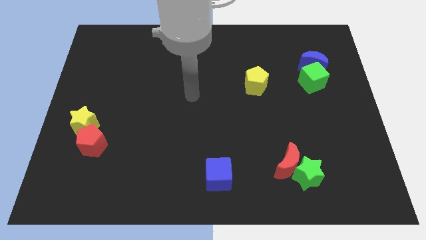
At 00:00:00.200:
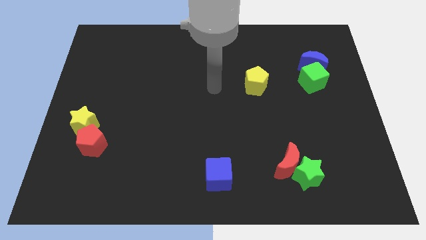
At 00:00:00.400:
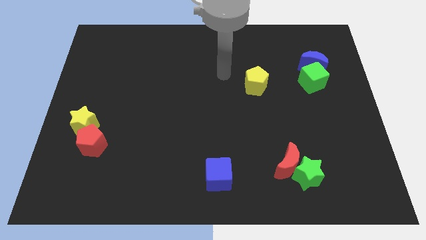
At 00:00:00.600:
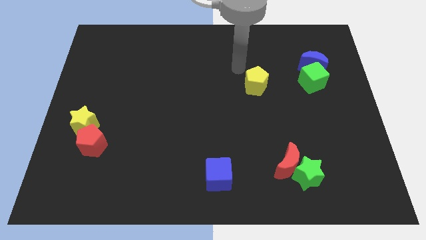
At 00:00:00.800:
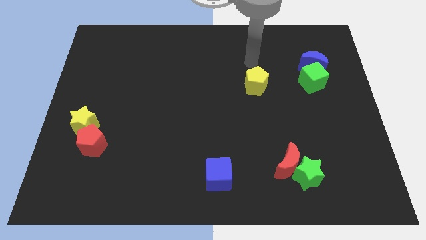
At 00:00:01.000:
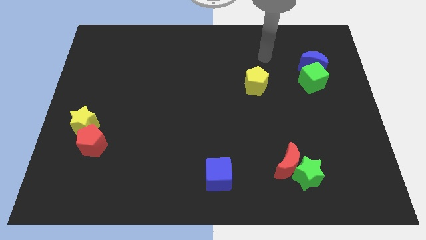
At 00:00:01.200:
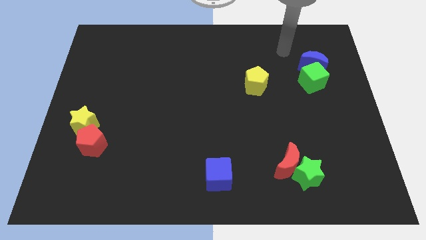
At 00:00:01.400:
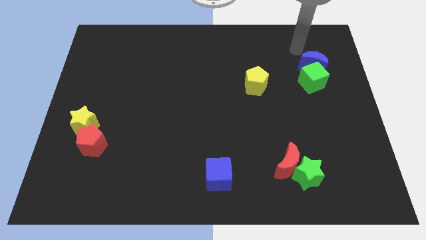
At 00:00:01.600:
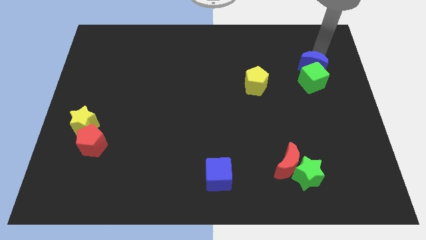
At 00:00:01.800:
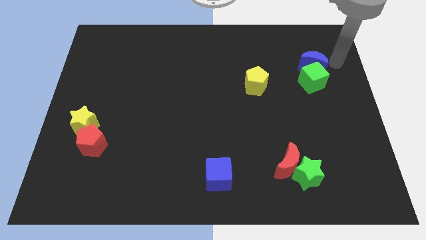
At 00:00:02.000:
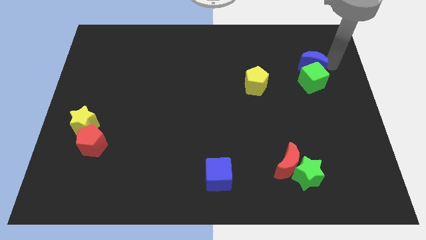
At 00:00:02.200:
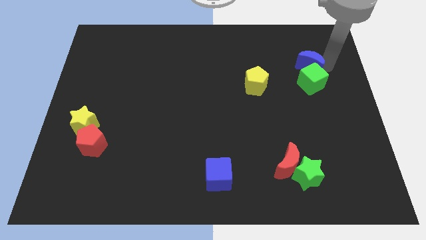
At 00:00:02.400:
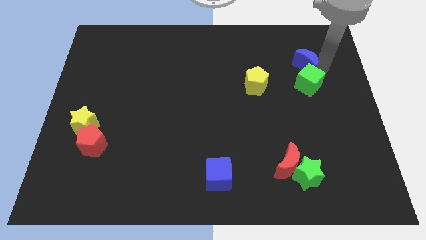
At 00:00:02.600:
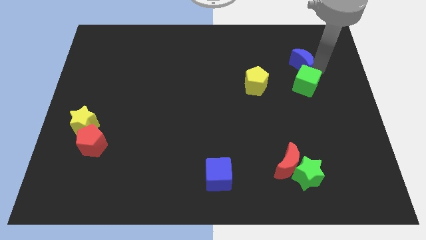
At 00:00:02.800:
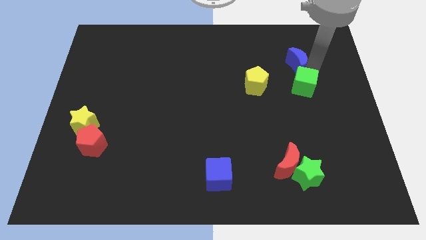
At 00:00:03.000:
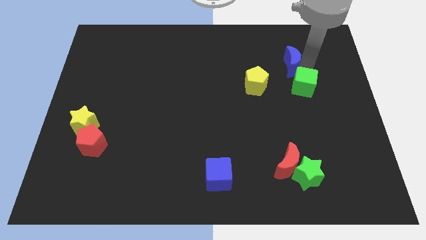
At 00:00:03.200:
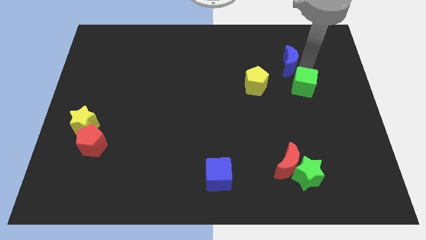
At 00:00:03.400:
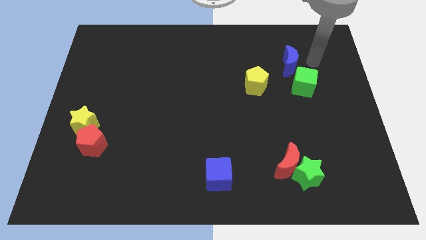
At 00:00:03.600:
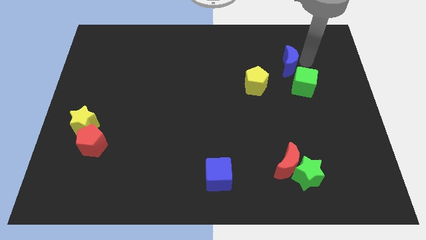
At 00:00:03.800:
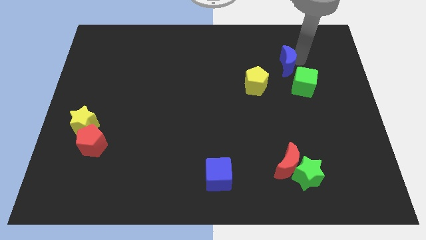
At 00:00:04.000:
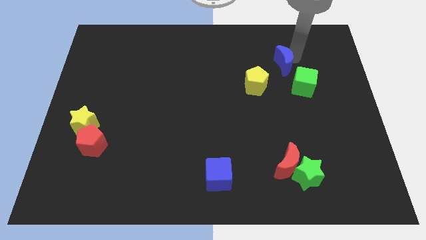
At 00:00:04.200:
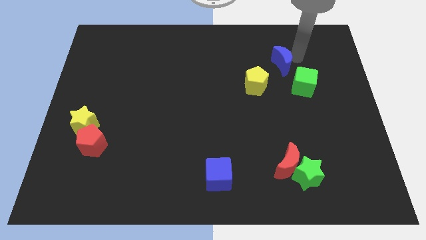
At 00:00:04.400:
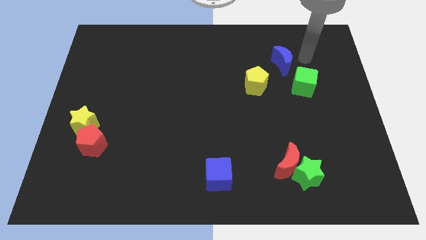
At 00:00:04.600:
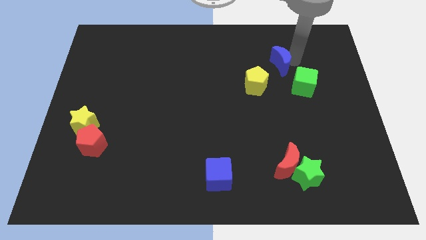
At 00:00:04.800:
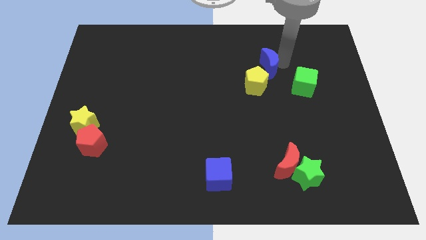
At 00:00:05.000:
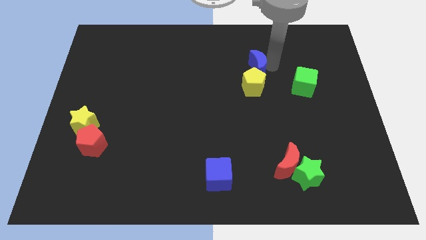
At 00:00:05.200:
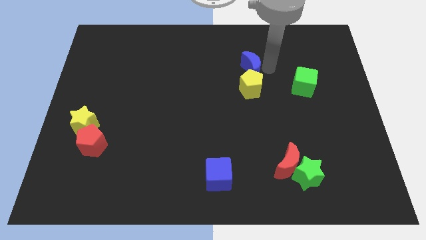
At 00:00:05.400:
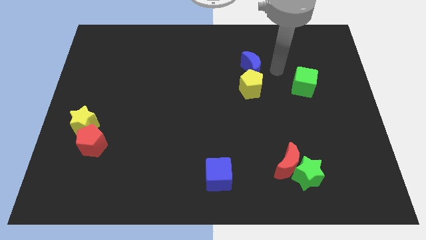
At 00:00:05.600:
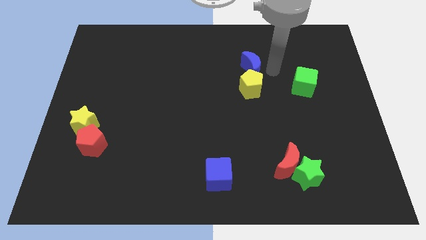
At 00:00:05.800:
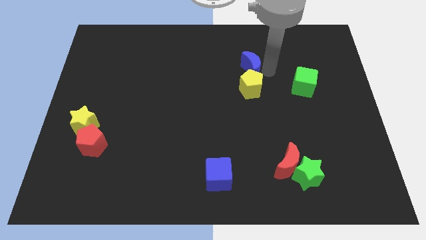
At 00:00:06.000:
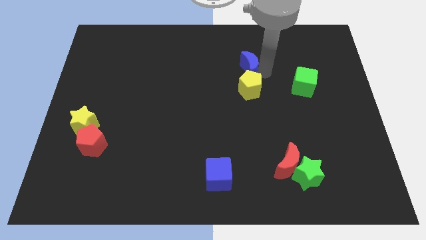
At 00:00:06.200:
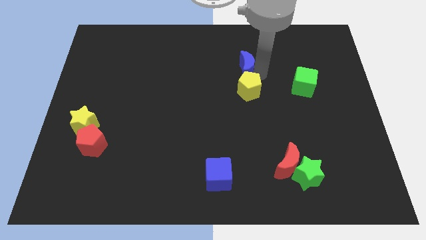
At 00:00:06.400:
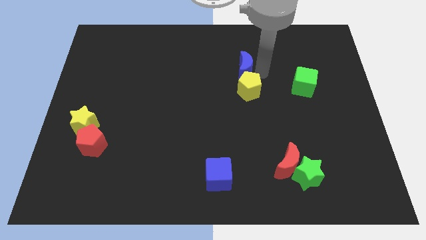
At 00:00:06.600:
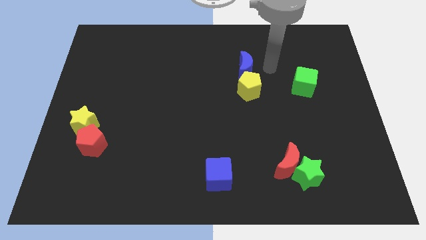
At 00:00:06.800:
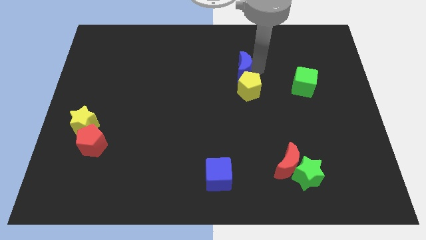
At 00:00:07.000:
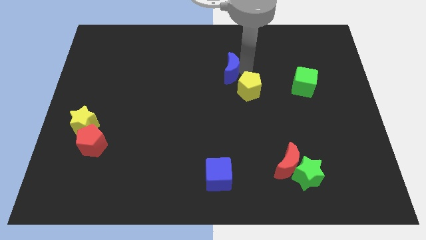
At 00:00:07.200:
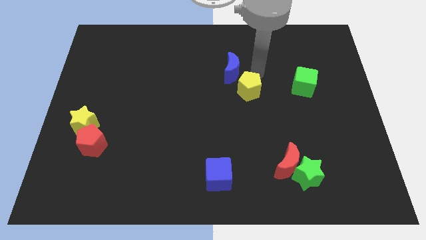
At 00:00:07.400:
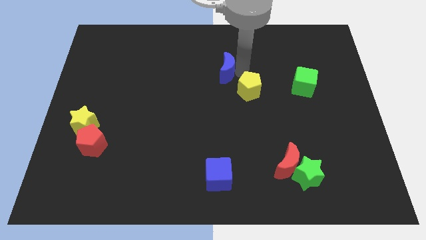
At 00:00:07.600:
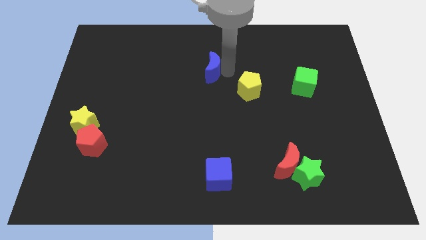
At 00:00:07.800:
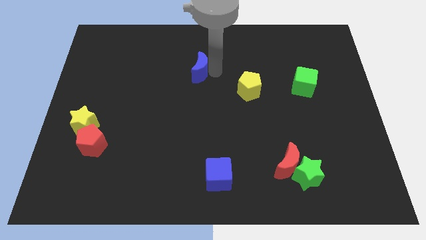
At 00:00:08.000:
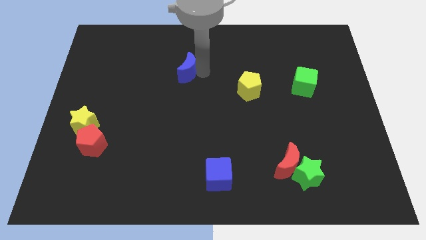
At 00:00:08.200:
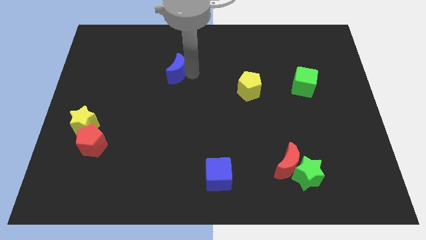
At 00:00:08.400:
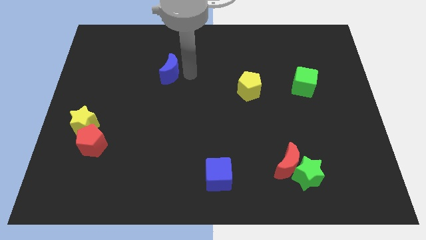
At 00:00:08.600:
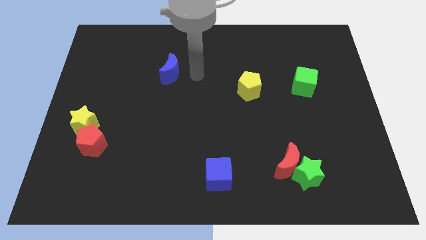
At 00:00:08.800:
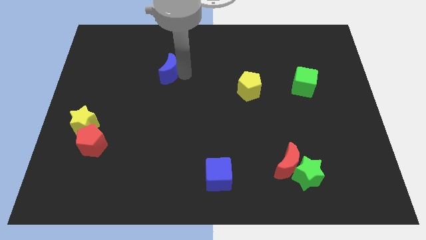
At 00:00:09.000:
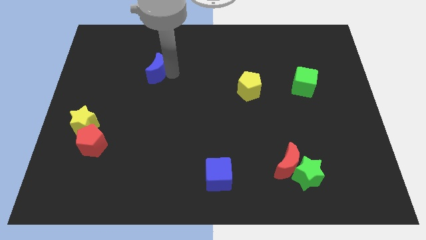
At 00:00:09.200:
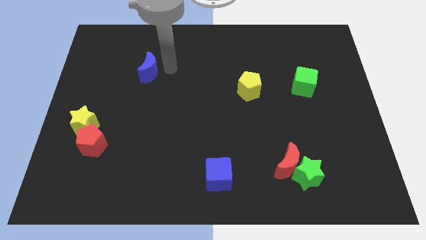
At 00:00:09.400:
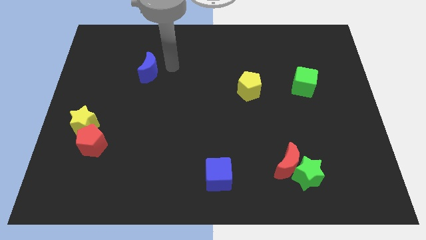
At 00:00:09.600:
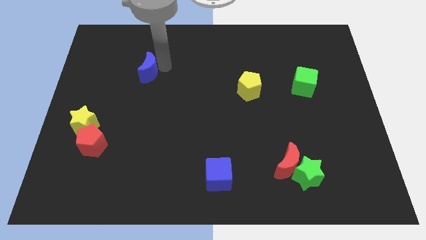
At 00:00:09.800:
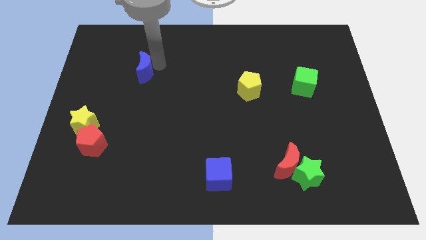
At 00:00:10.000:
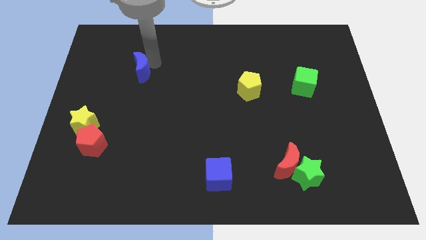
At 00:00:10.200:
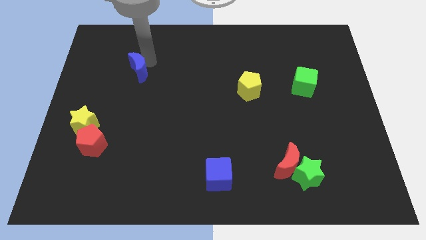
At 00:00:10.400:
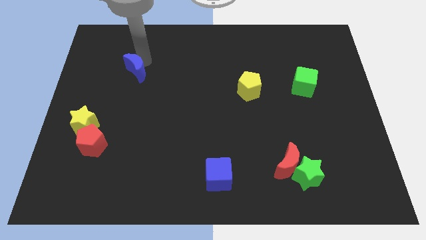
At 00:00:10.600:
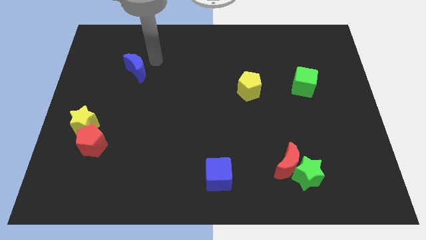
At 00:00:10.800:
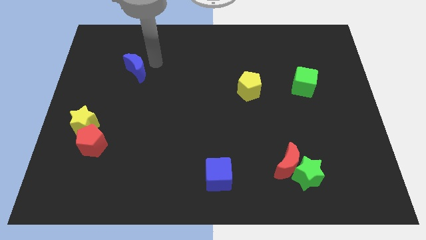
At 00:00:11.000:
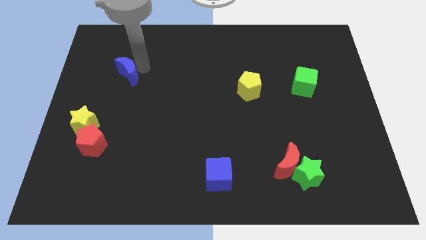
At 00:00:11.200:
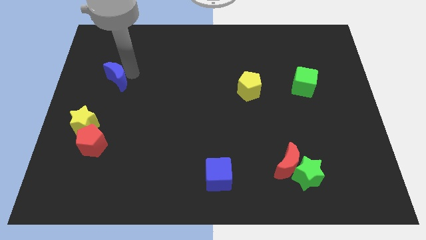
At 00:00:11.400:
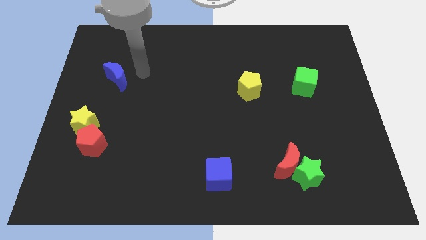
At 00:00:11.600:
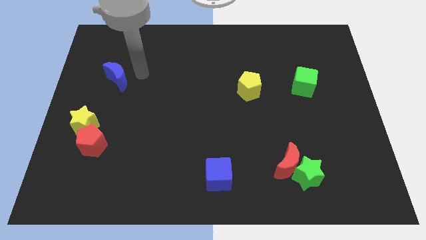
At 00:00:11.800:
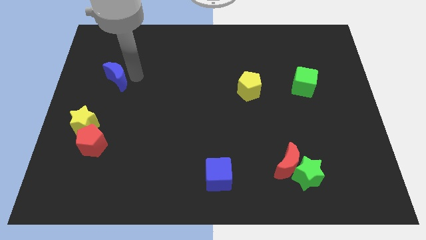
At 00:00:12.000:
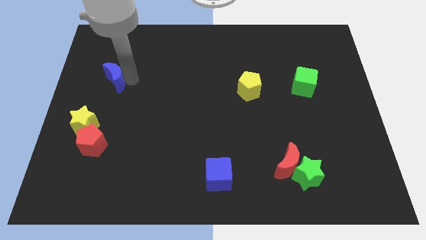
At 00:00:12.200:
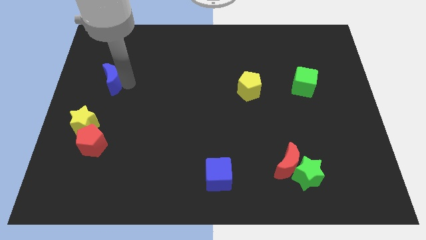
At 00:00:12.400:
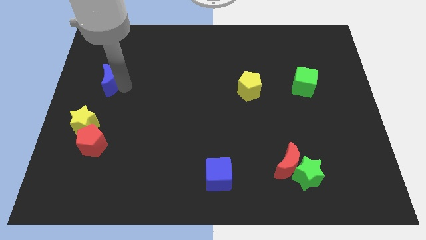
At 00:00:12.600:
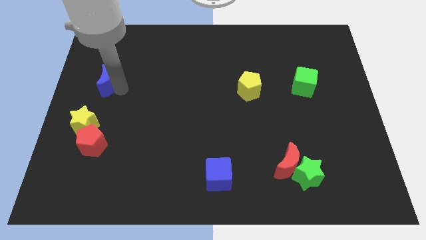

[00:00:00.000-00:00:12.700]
slide the blue moon to the left side

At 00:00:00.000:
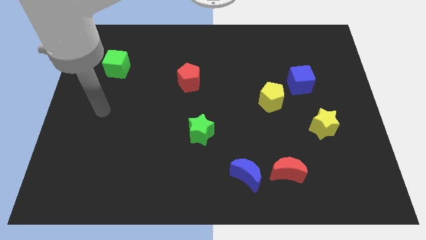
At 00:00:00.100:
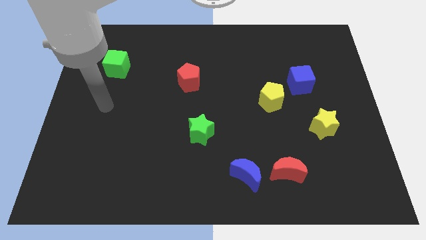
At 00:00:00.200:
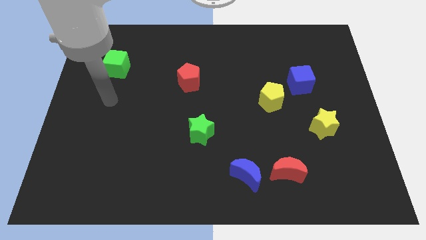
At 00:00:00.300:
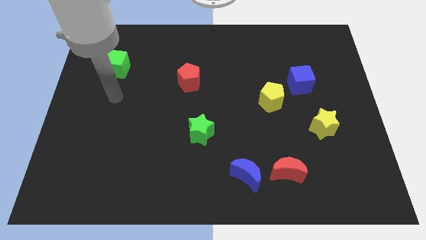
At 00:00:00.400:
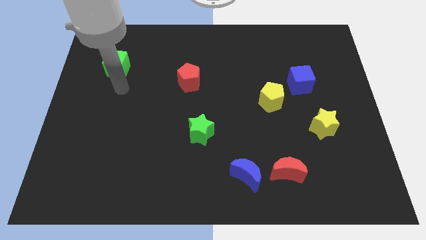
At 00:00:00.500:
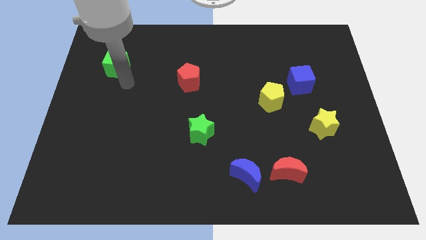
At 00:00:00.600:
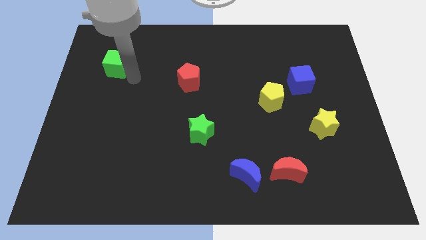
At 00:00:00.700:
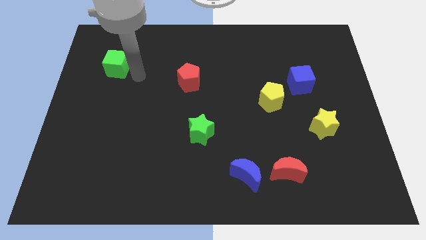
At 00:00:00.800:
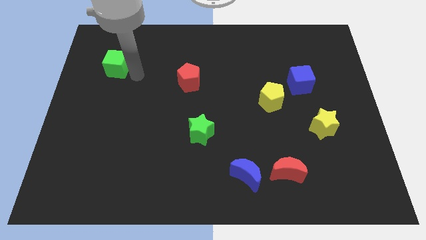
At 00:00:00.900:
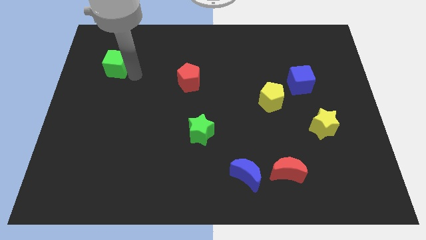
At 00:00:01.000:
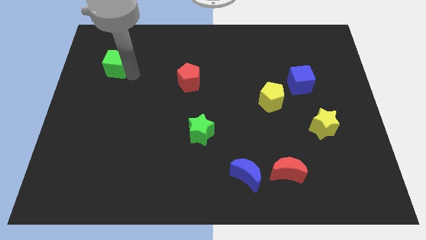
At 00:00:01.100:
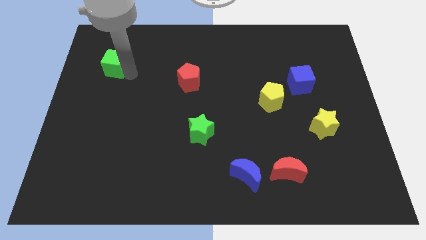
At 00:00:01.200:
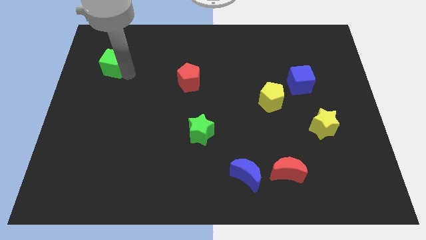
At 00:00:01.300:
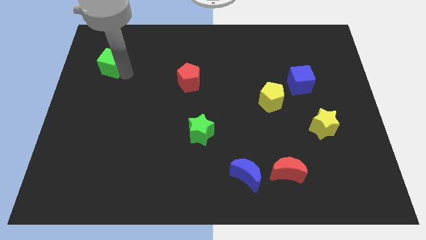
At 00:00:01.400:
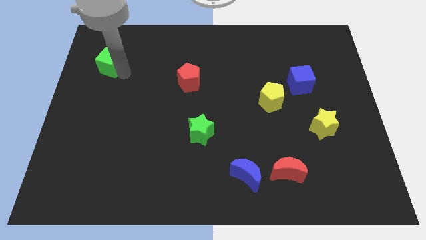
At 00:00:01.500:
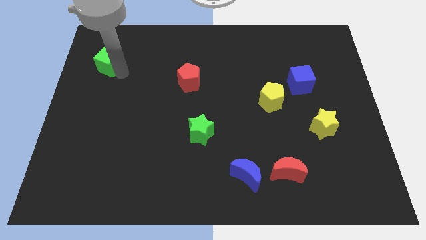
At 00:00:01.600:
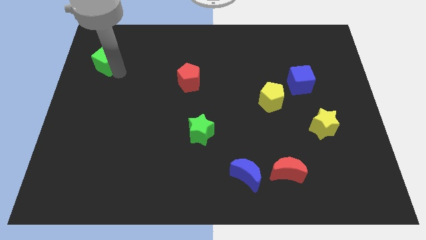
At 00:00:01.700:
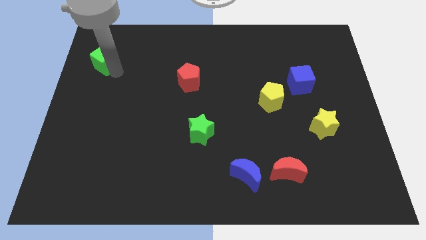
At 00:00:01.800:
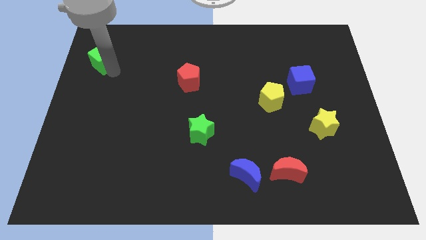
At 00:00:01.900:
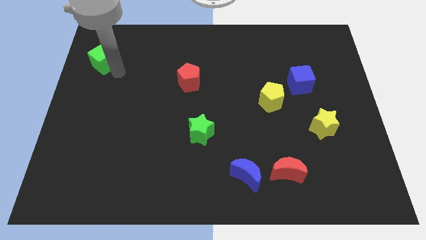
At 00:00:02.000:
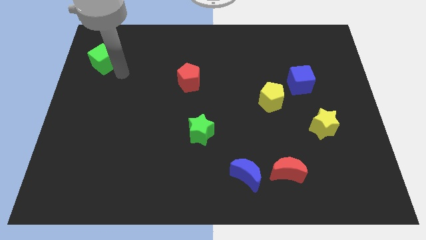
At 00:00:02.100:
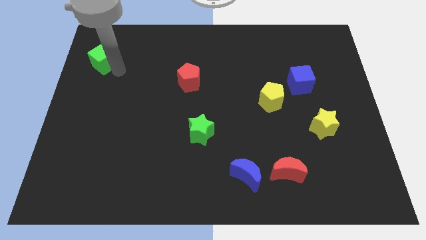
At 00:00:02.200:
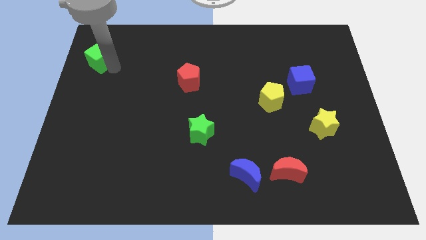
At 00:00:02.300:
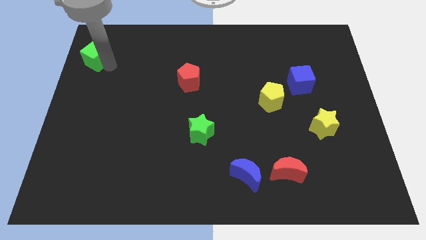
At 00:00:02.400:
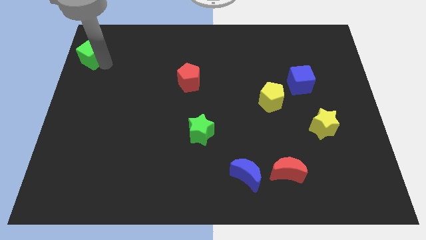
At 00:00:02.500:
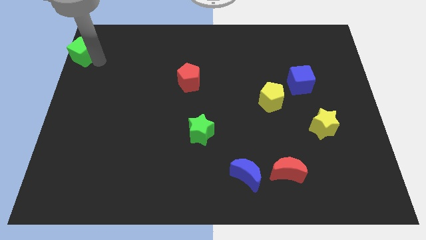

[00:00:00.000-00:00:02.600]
slide the green cube to the top left of the board
